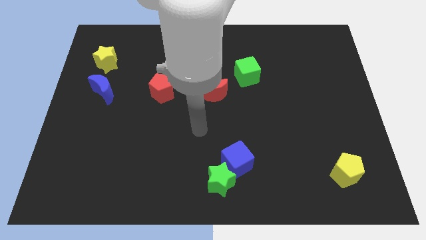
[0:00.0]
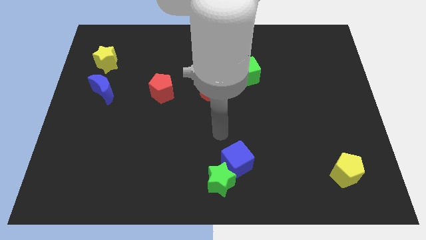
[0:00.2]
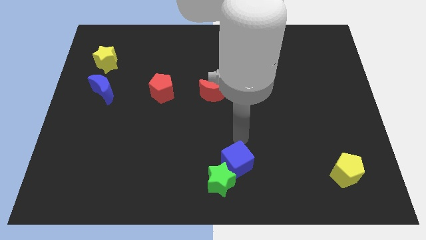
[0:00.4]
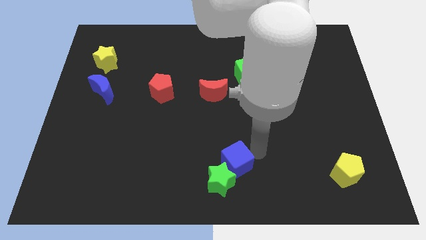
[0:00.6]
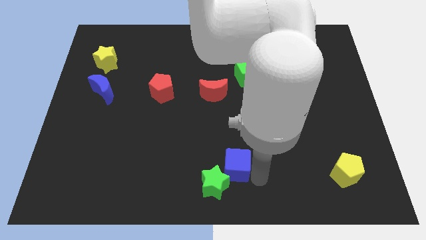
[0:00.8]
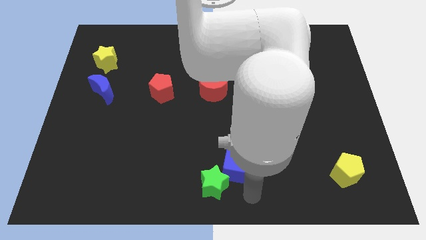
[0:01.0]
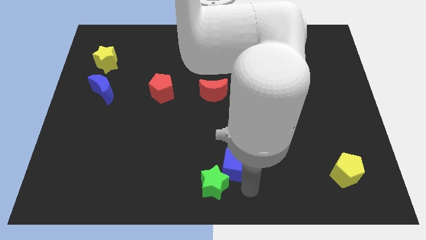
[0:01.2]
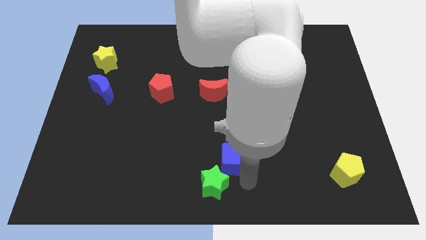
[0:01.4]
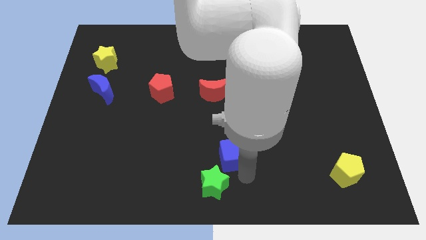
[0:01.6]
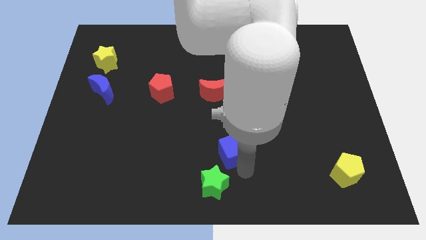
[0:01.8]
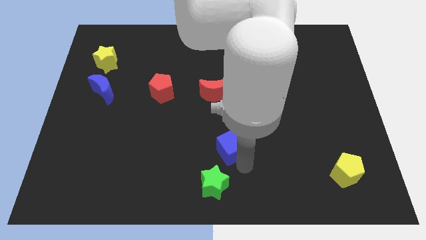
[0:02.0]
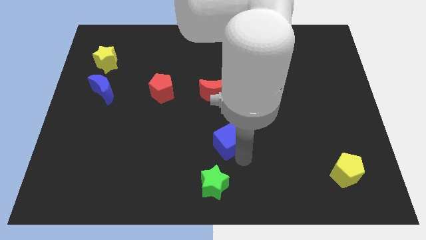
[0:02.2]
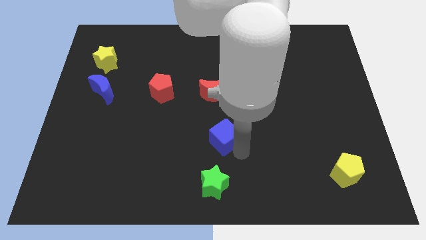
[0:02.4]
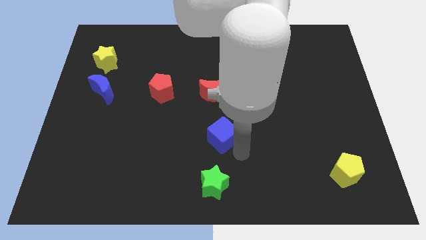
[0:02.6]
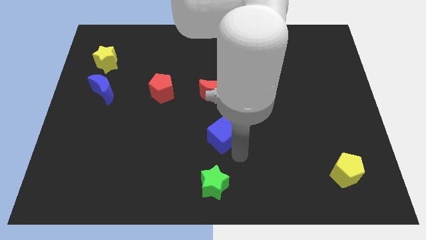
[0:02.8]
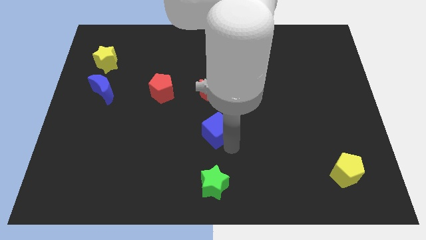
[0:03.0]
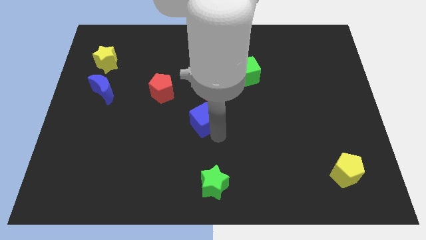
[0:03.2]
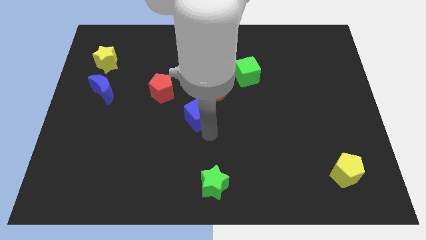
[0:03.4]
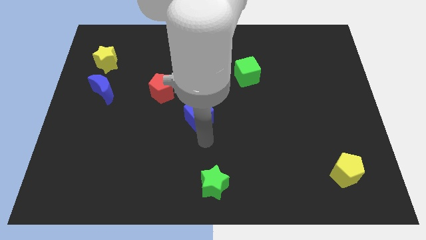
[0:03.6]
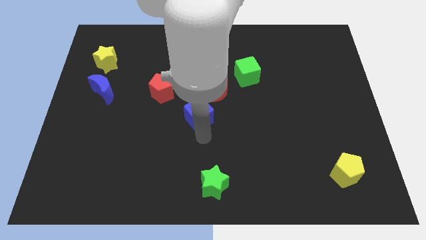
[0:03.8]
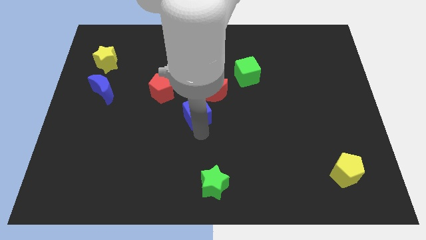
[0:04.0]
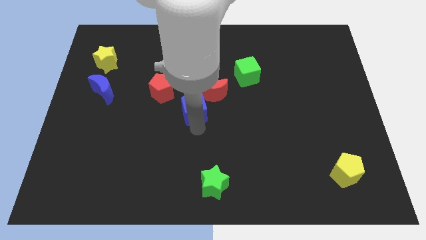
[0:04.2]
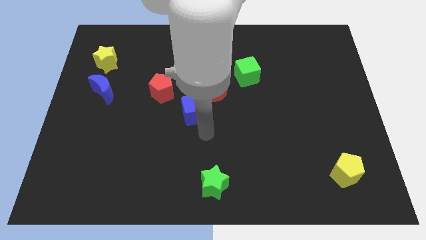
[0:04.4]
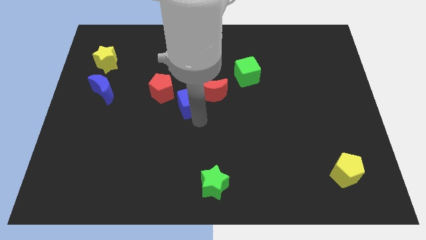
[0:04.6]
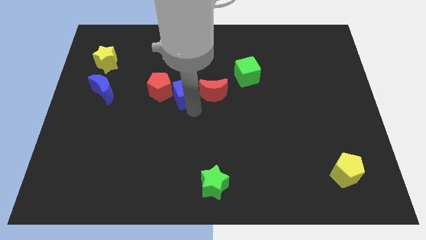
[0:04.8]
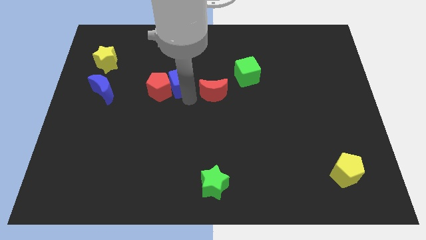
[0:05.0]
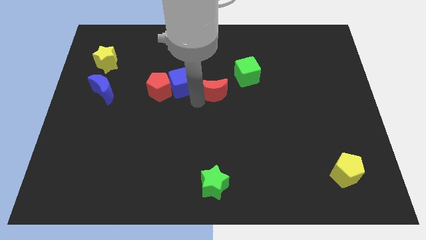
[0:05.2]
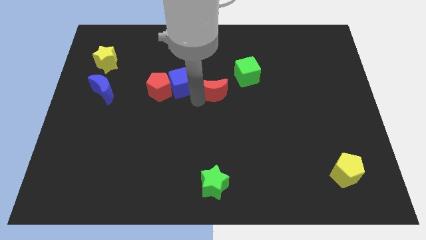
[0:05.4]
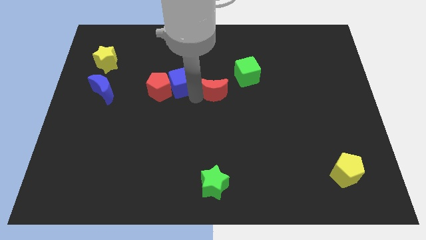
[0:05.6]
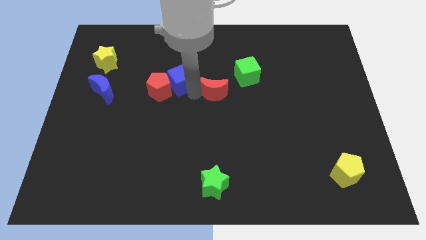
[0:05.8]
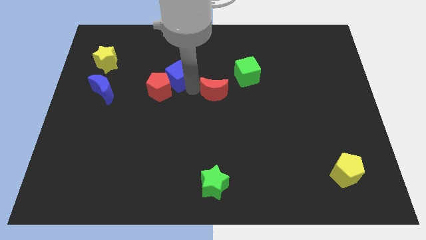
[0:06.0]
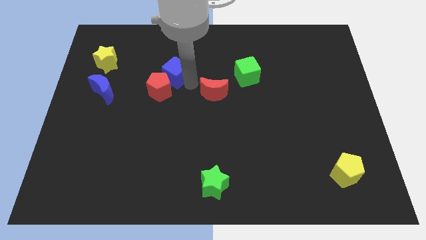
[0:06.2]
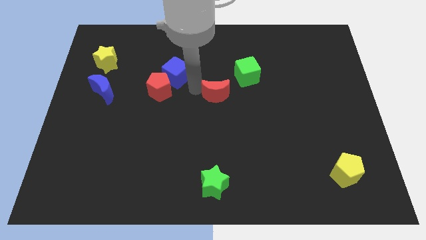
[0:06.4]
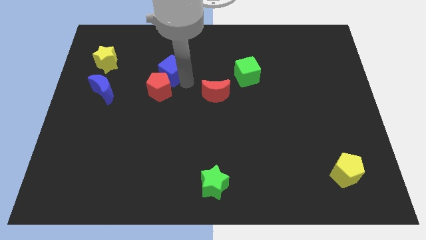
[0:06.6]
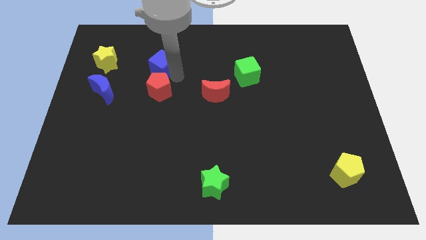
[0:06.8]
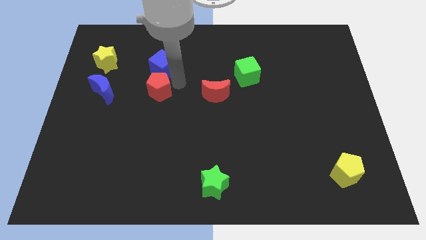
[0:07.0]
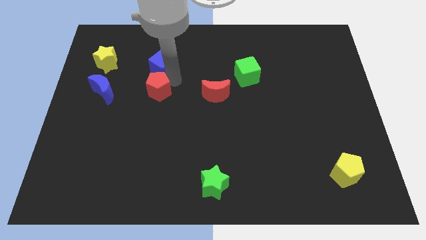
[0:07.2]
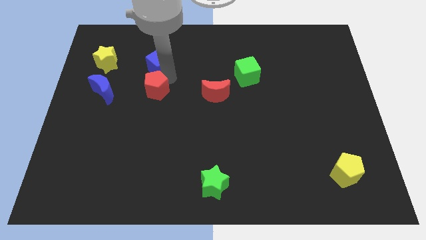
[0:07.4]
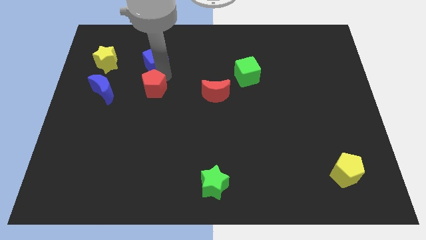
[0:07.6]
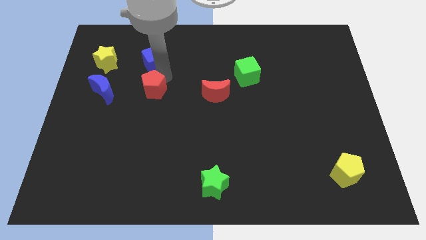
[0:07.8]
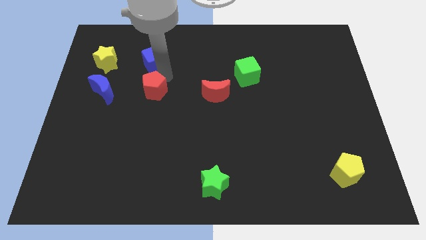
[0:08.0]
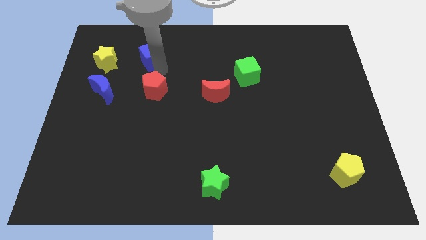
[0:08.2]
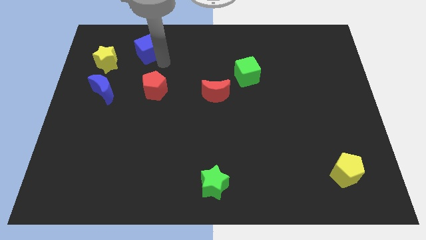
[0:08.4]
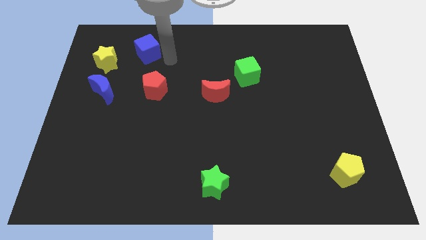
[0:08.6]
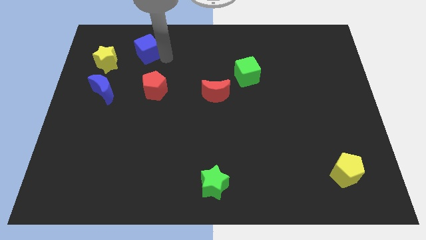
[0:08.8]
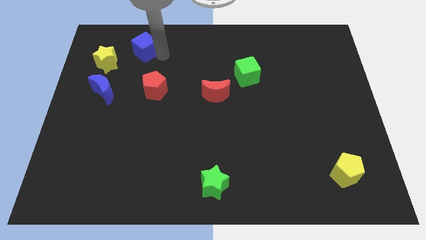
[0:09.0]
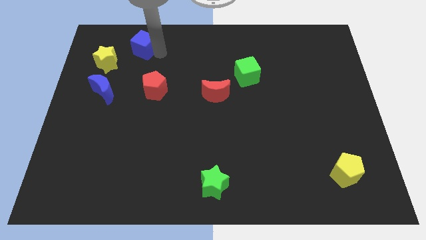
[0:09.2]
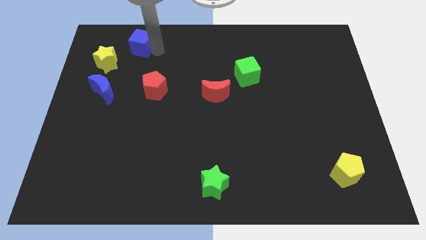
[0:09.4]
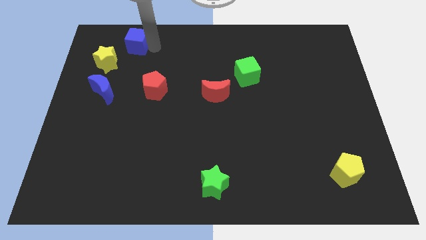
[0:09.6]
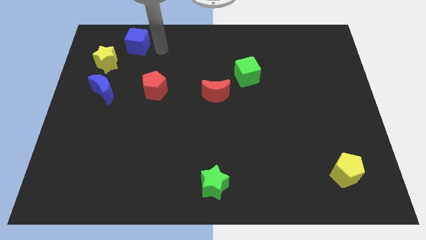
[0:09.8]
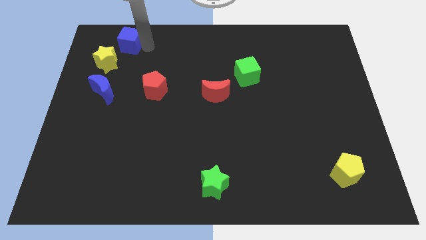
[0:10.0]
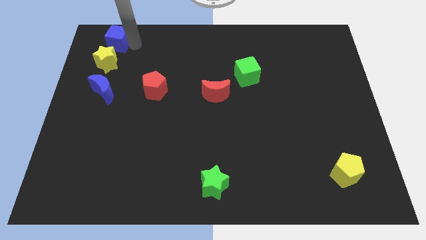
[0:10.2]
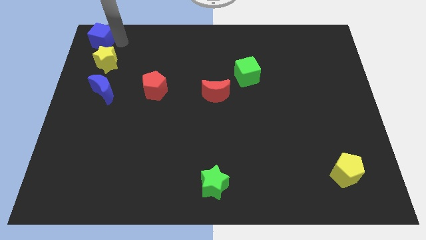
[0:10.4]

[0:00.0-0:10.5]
put the blue cube to the upper left corner

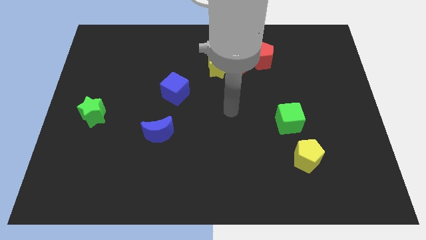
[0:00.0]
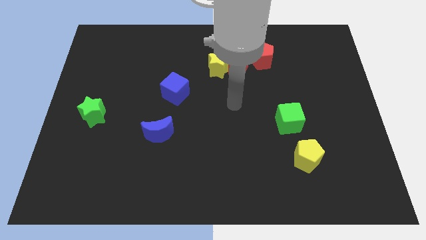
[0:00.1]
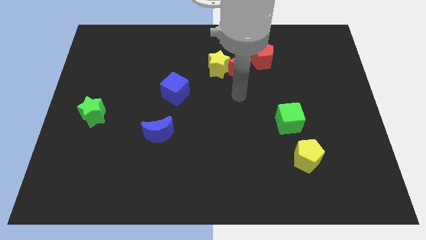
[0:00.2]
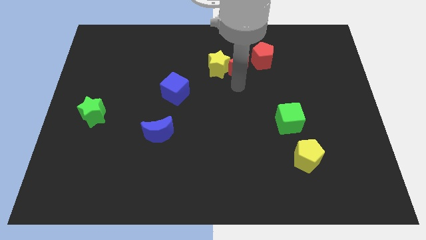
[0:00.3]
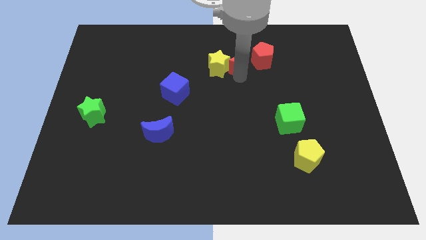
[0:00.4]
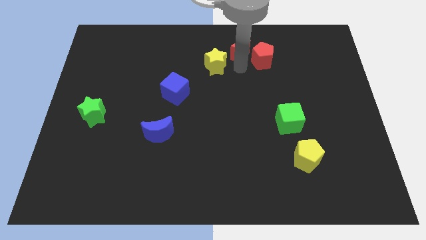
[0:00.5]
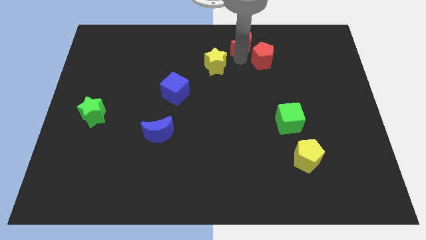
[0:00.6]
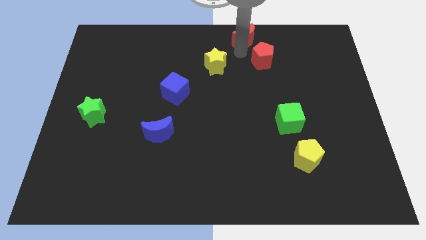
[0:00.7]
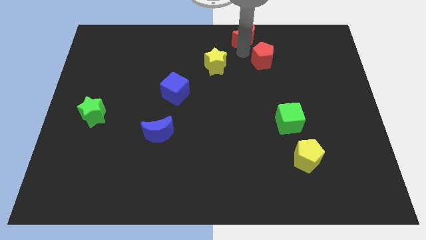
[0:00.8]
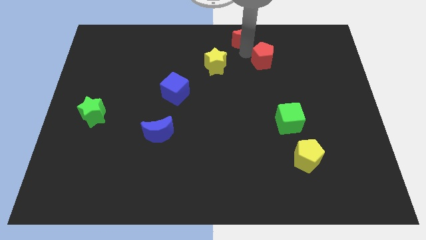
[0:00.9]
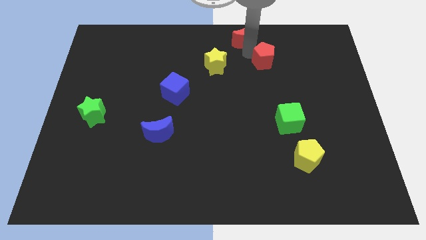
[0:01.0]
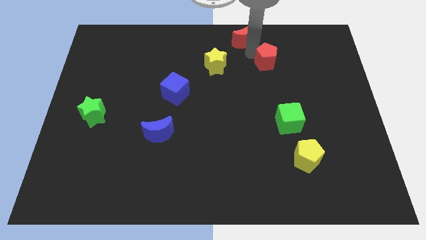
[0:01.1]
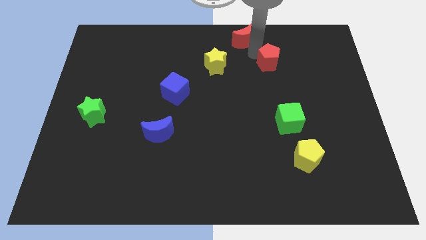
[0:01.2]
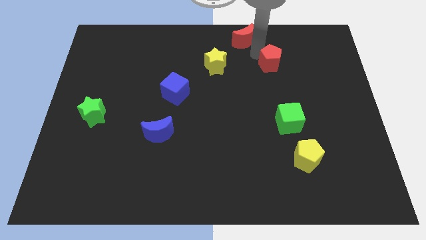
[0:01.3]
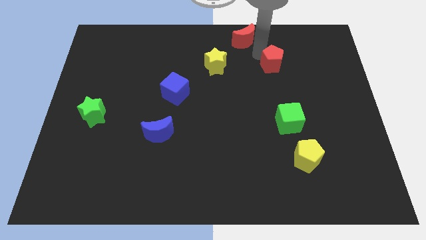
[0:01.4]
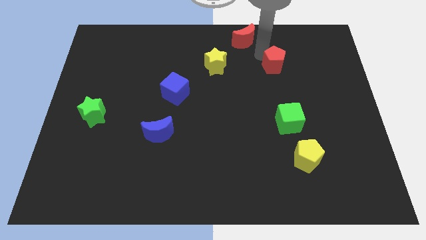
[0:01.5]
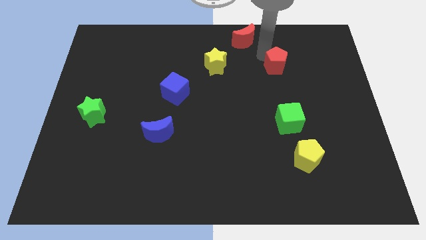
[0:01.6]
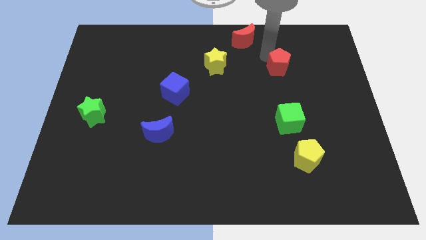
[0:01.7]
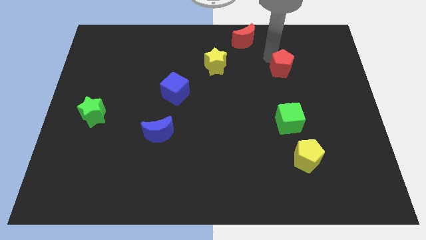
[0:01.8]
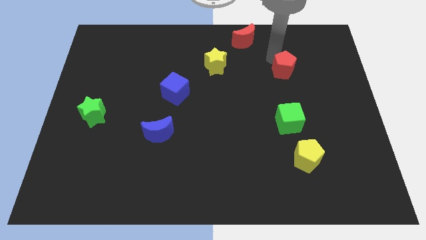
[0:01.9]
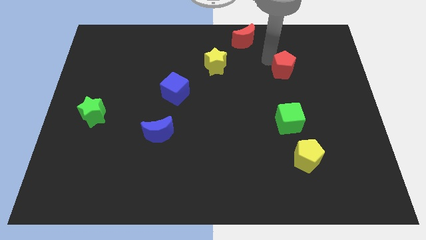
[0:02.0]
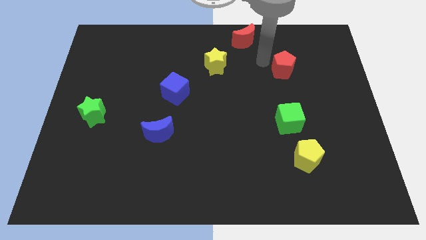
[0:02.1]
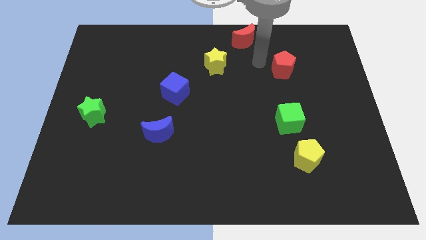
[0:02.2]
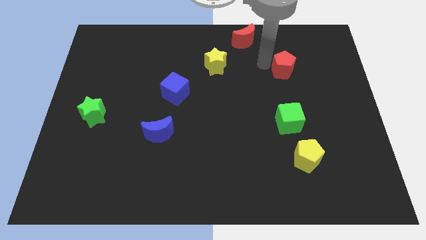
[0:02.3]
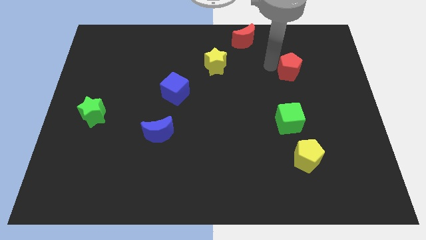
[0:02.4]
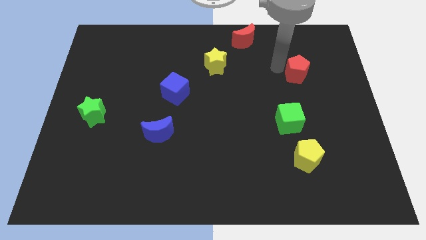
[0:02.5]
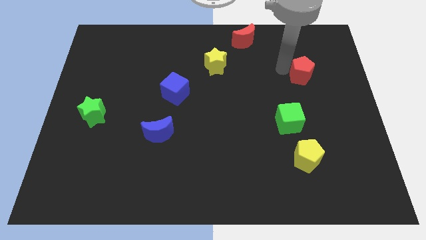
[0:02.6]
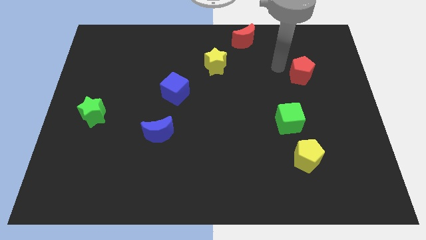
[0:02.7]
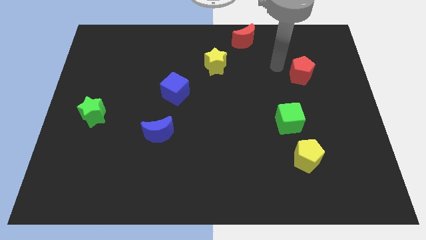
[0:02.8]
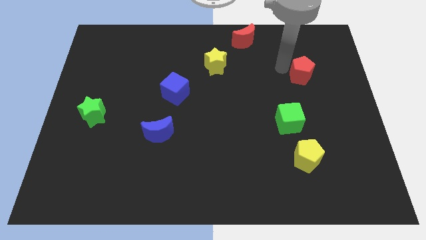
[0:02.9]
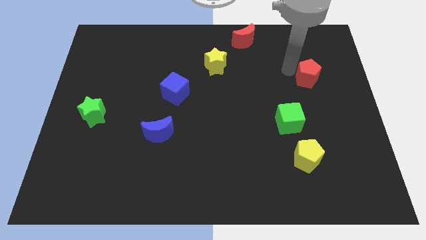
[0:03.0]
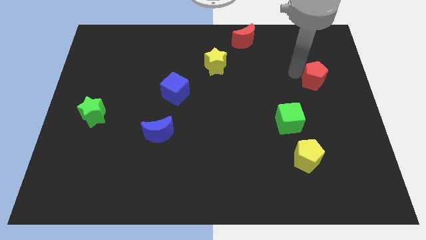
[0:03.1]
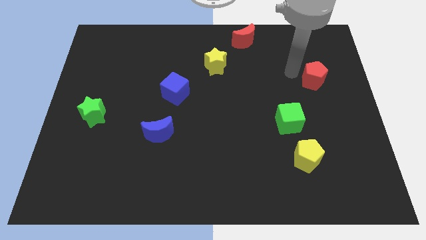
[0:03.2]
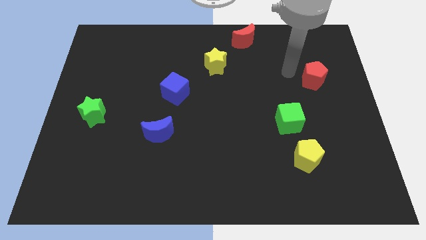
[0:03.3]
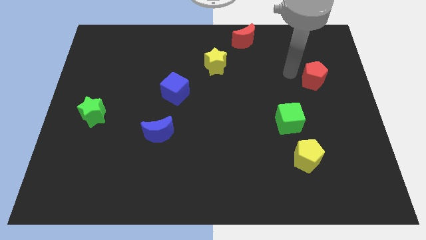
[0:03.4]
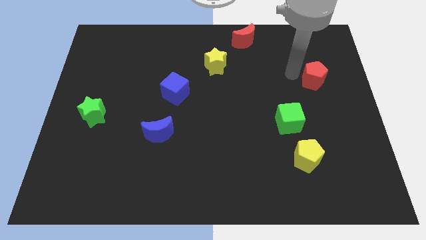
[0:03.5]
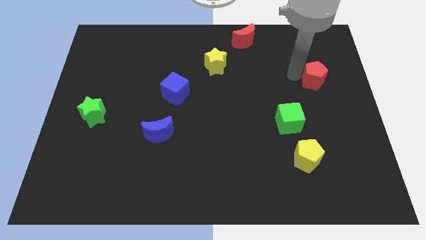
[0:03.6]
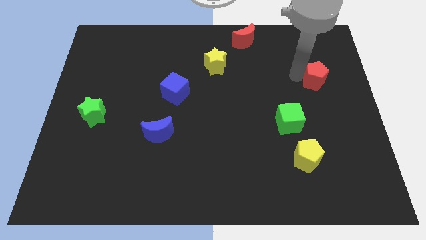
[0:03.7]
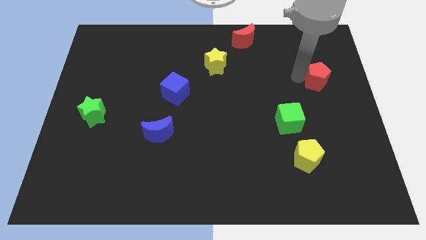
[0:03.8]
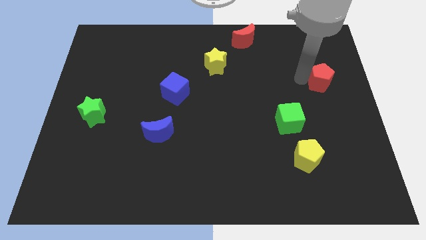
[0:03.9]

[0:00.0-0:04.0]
push the red pentagon to the center right
